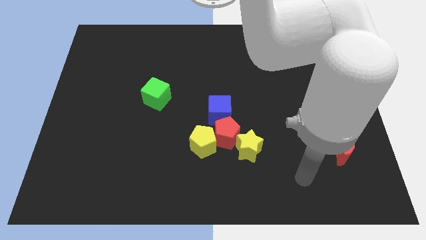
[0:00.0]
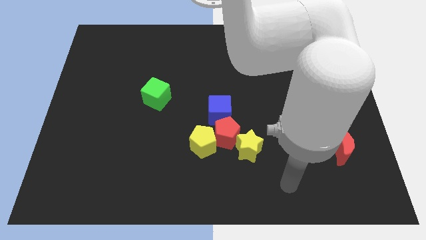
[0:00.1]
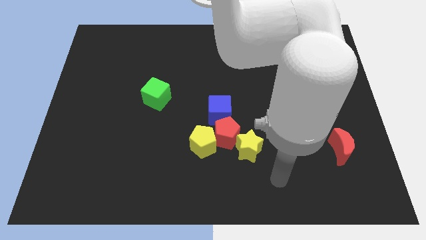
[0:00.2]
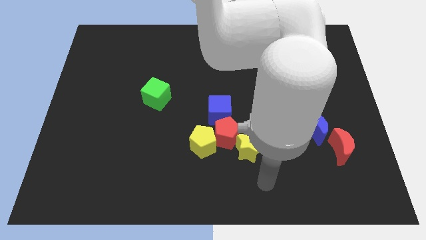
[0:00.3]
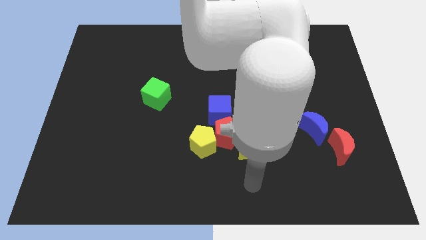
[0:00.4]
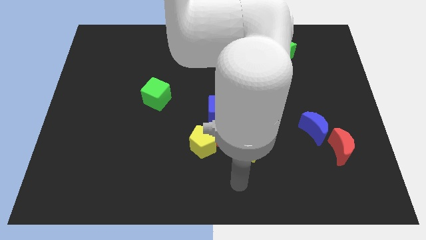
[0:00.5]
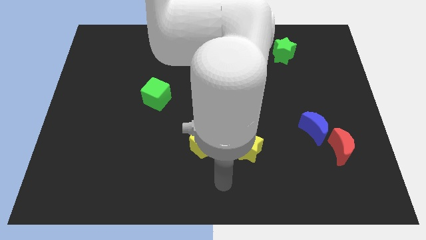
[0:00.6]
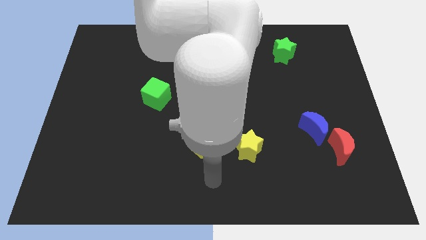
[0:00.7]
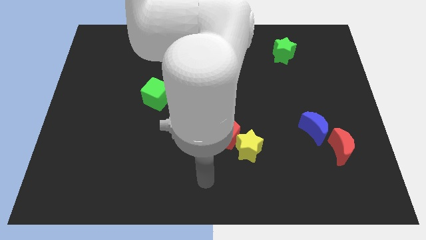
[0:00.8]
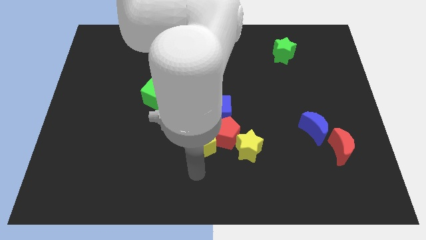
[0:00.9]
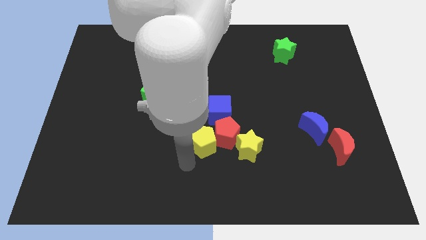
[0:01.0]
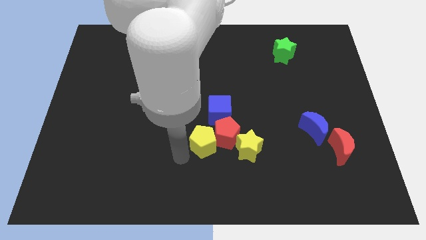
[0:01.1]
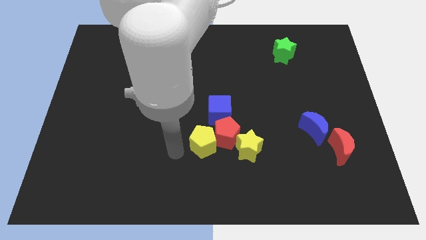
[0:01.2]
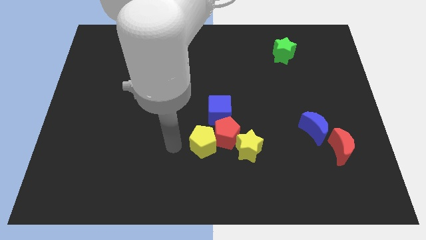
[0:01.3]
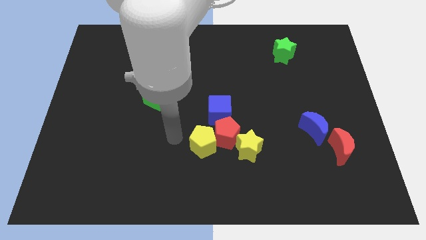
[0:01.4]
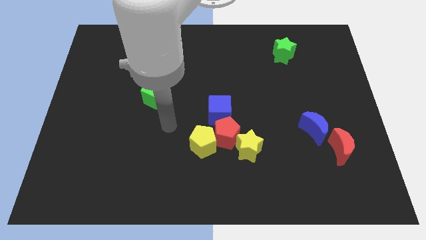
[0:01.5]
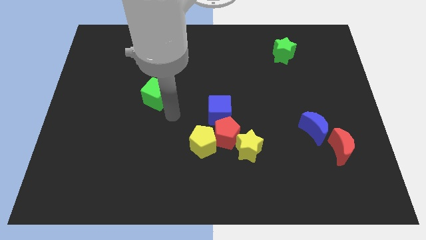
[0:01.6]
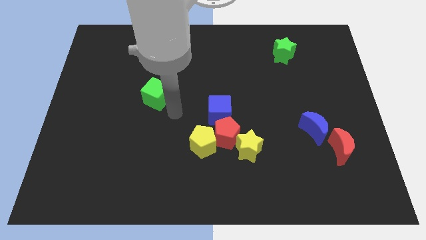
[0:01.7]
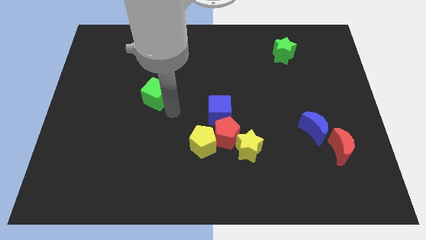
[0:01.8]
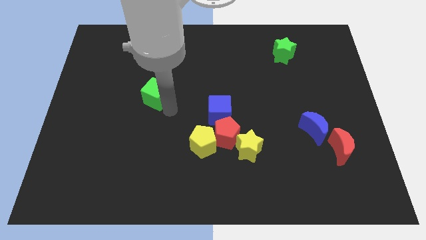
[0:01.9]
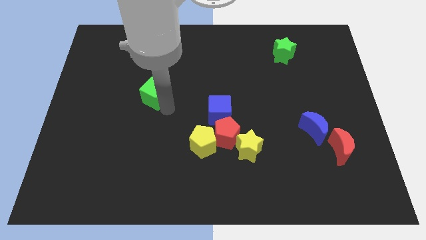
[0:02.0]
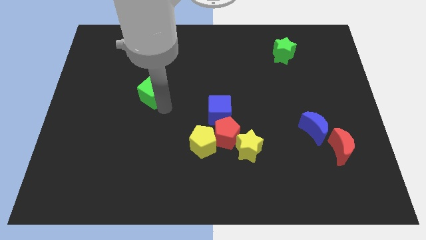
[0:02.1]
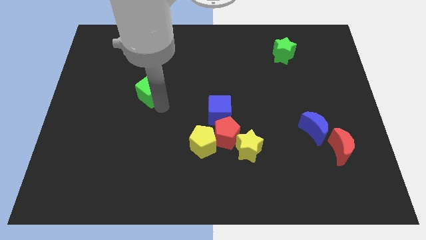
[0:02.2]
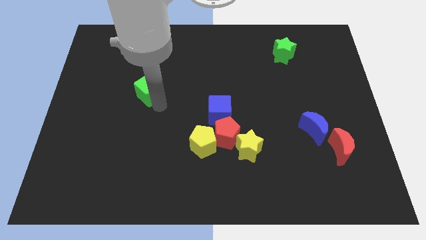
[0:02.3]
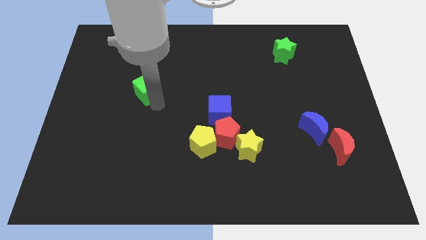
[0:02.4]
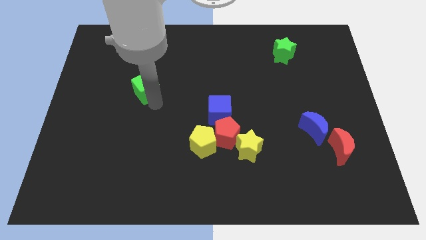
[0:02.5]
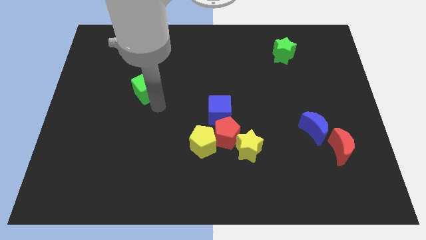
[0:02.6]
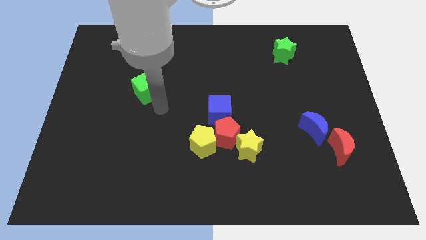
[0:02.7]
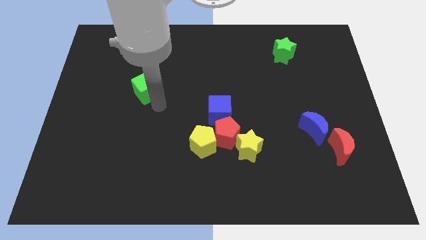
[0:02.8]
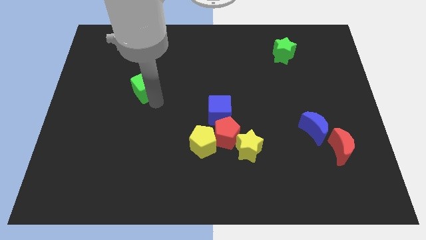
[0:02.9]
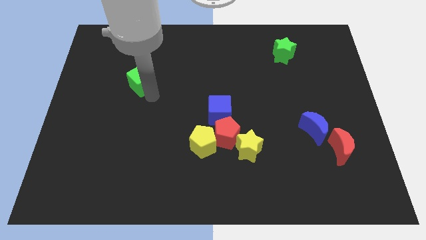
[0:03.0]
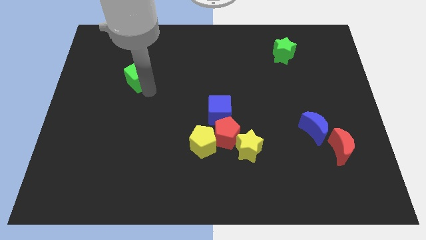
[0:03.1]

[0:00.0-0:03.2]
slightly move the green cube up and to the left

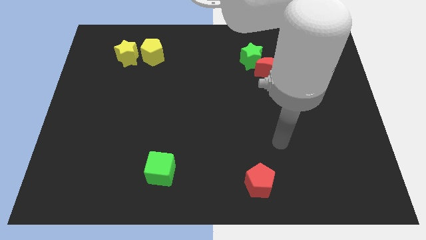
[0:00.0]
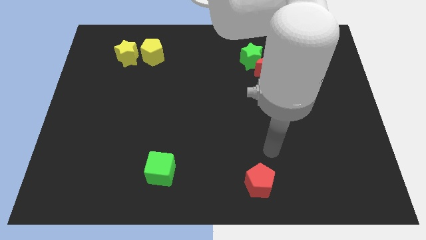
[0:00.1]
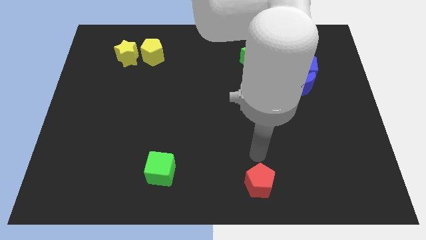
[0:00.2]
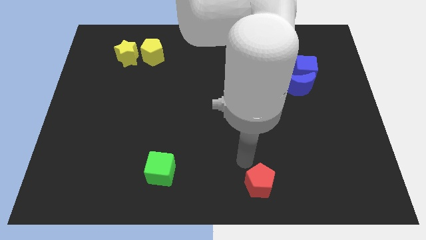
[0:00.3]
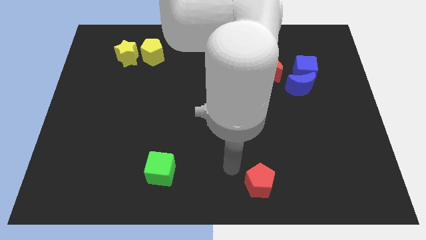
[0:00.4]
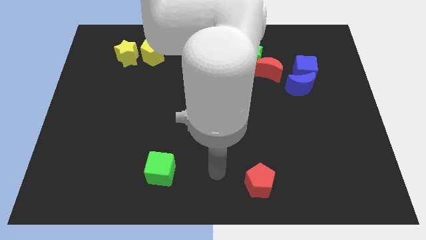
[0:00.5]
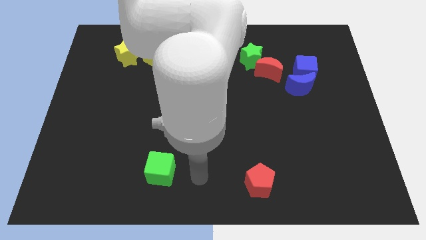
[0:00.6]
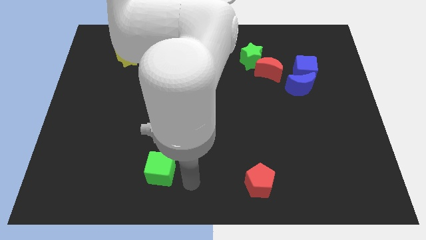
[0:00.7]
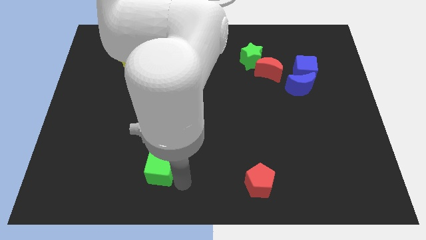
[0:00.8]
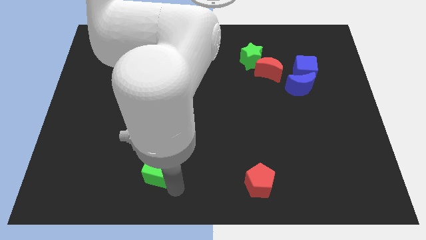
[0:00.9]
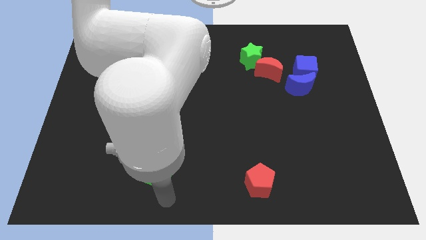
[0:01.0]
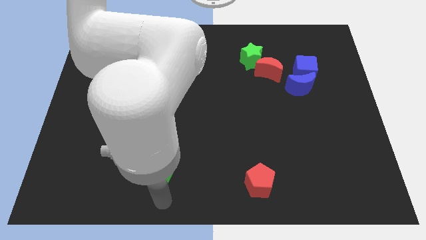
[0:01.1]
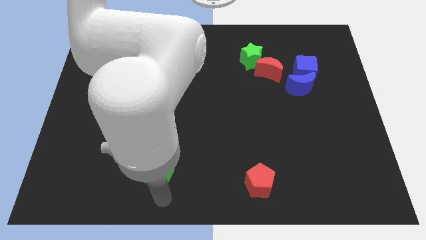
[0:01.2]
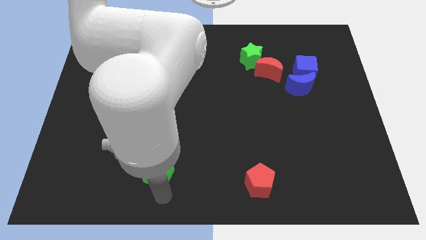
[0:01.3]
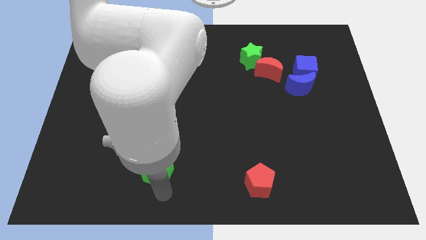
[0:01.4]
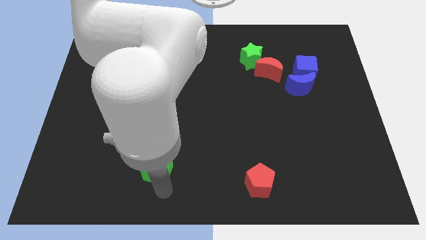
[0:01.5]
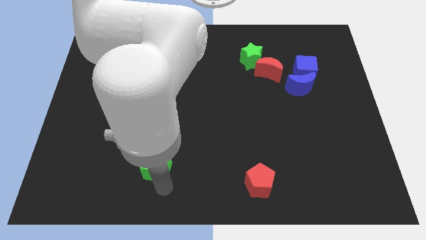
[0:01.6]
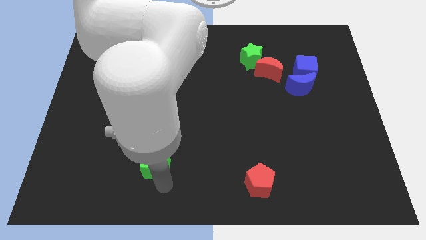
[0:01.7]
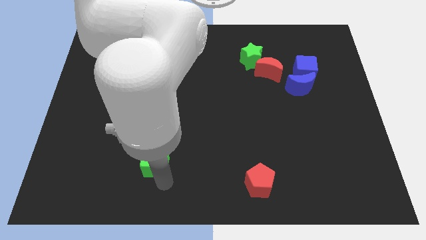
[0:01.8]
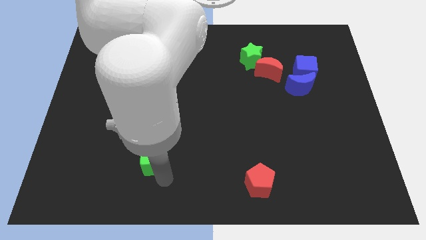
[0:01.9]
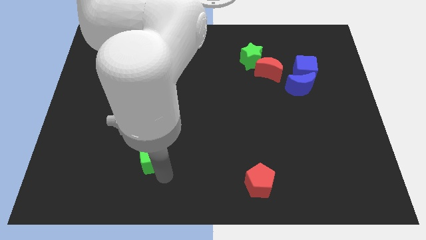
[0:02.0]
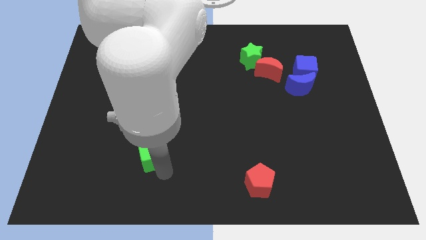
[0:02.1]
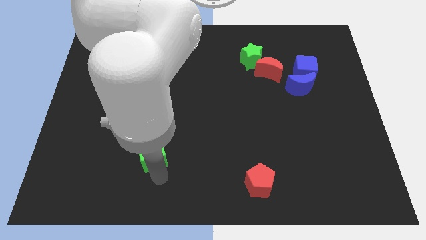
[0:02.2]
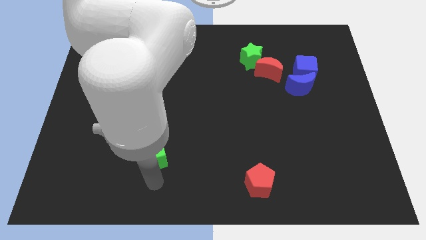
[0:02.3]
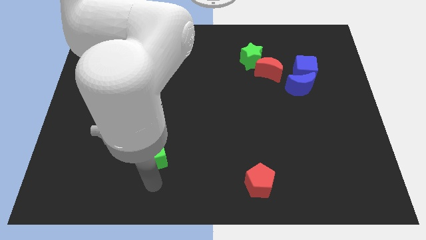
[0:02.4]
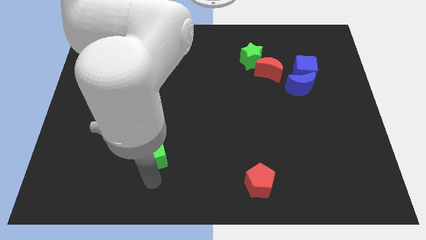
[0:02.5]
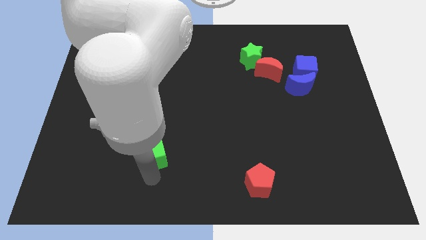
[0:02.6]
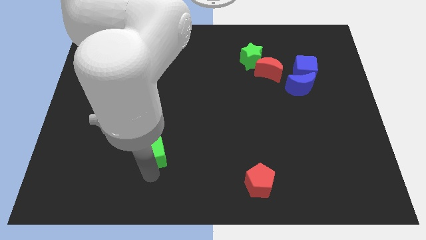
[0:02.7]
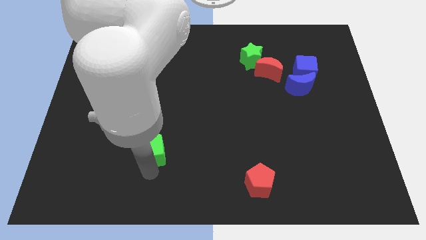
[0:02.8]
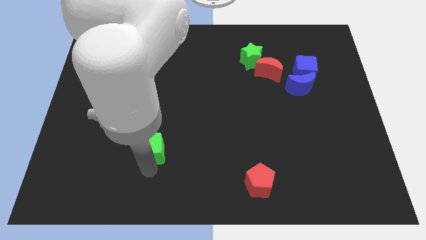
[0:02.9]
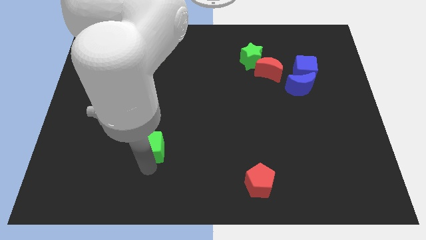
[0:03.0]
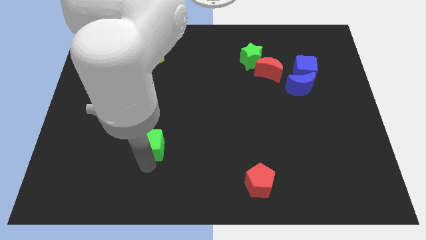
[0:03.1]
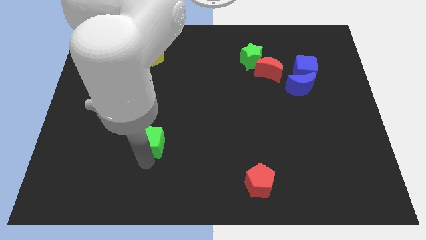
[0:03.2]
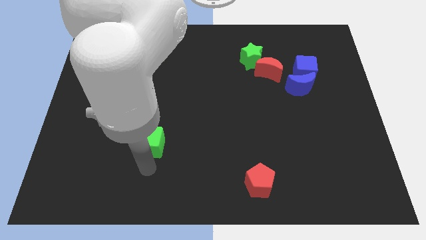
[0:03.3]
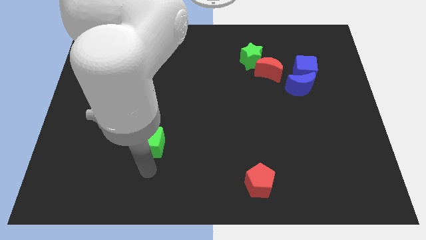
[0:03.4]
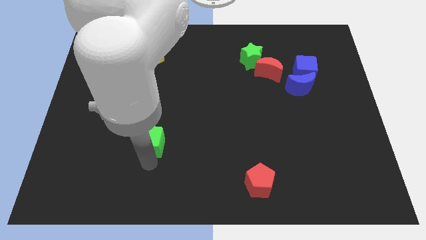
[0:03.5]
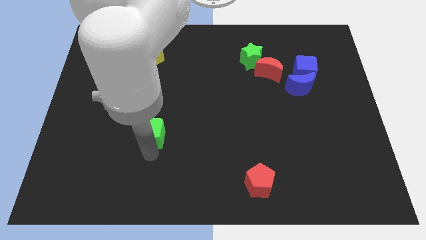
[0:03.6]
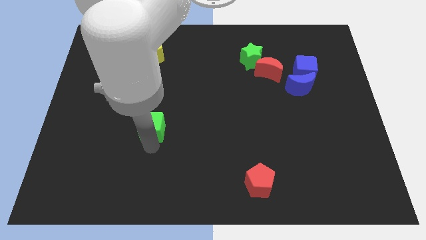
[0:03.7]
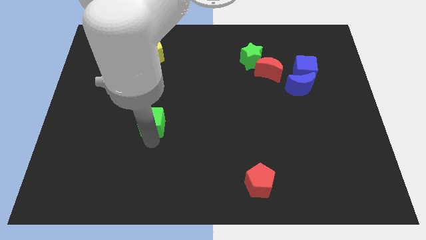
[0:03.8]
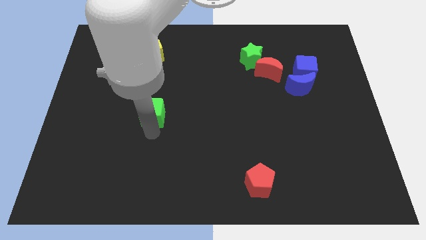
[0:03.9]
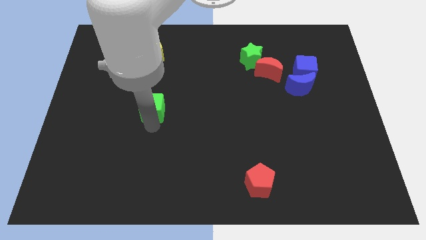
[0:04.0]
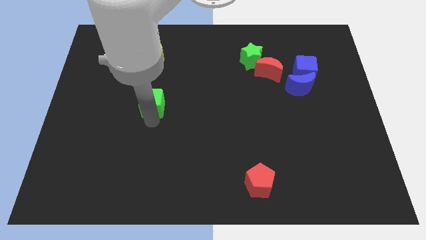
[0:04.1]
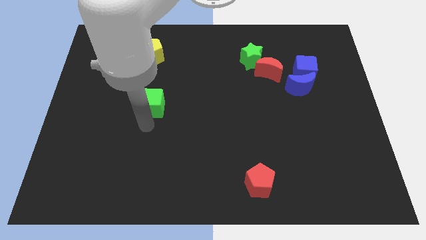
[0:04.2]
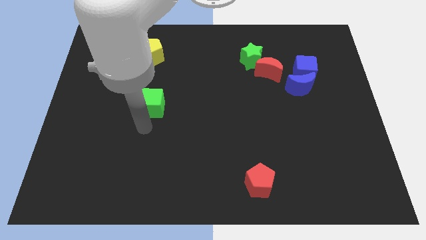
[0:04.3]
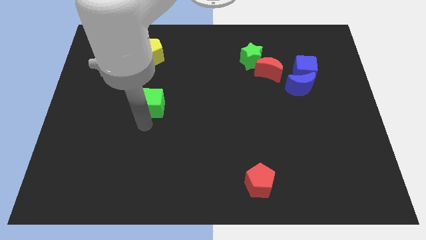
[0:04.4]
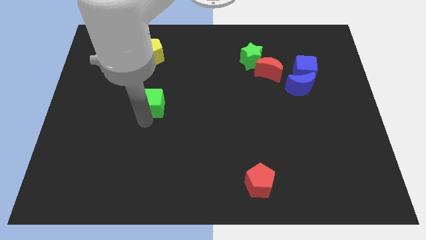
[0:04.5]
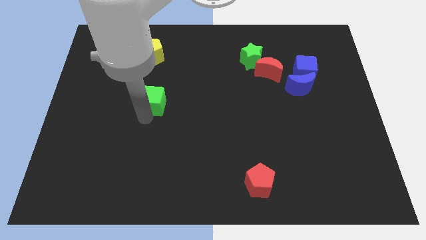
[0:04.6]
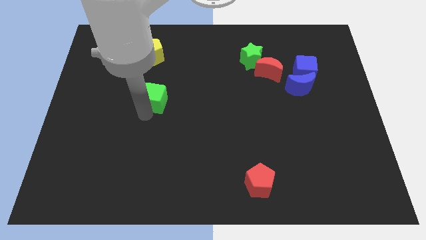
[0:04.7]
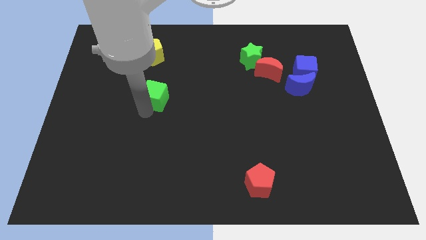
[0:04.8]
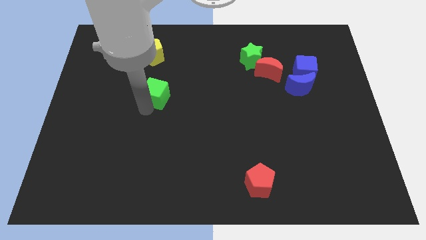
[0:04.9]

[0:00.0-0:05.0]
move the green cube upwards

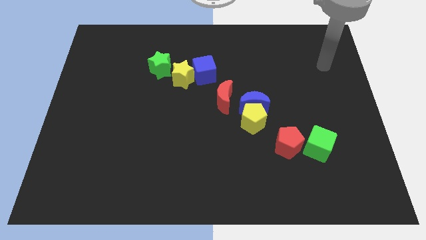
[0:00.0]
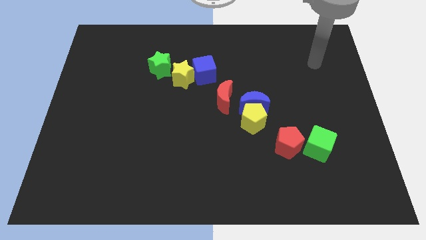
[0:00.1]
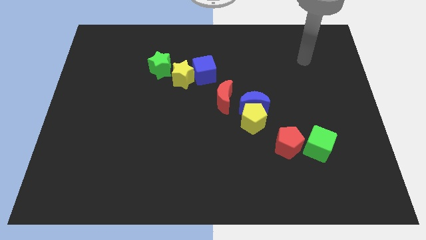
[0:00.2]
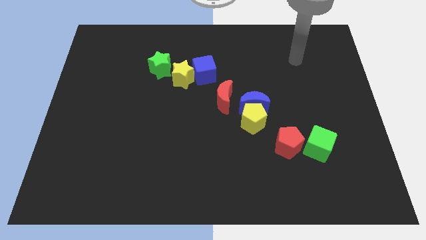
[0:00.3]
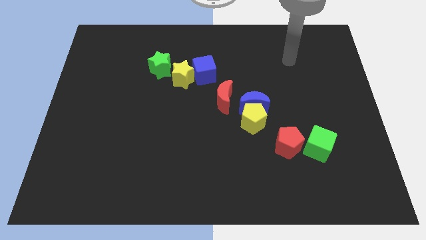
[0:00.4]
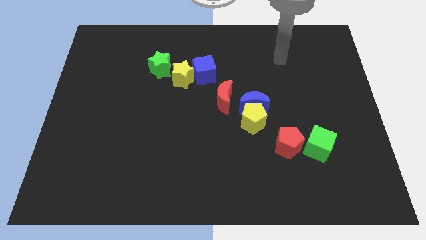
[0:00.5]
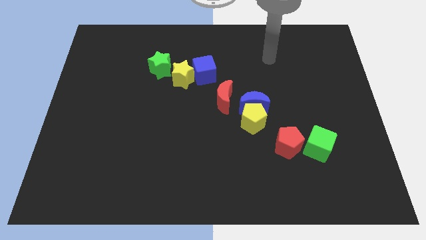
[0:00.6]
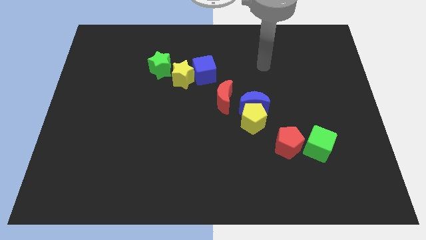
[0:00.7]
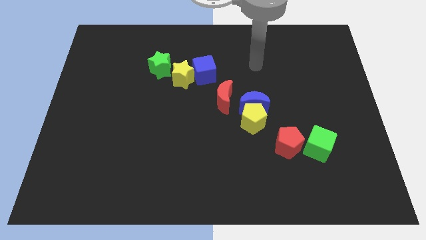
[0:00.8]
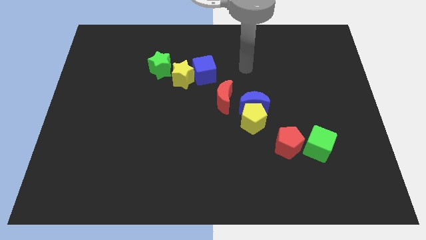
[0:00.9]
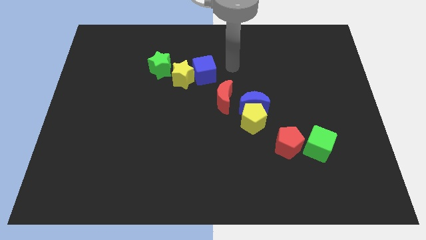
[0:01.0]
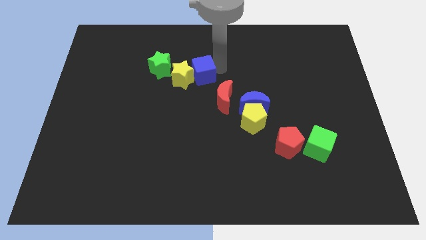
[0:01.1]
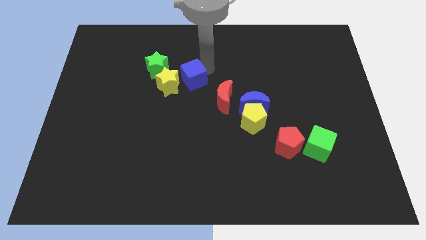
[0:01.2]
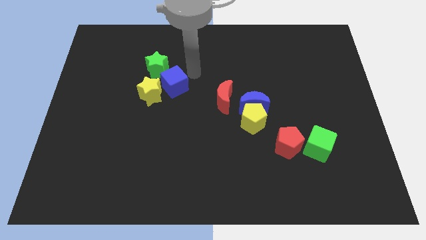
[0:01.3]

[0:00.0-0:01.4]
push the yellow star slightly down and to the left
